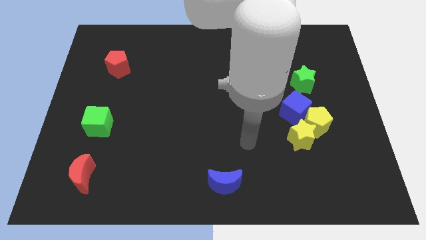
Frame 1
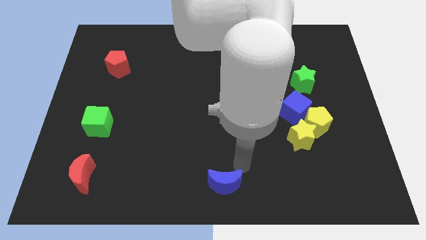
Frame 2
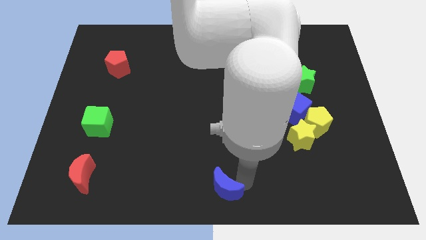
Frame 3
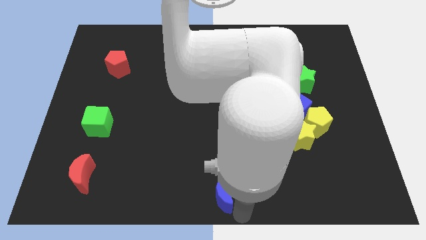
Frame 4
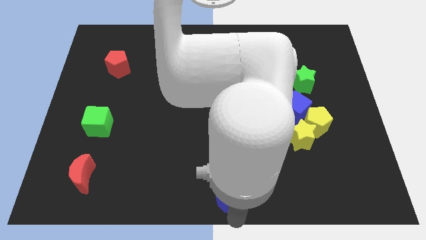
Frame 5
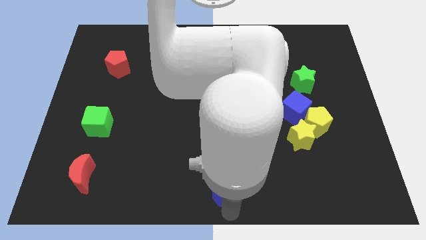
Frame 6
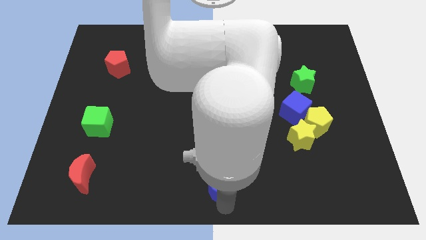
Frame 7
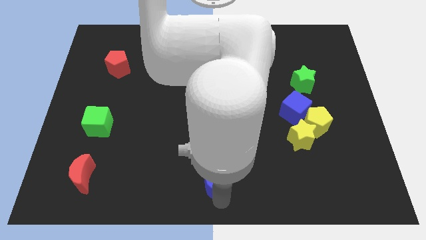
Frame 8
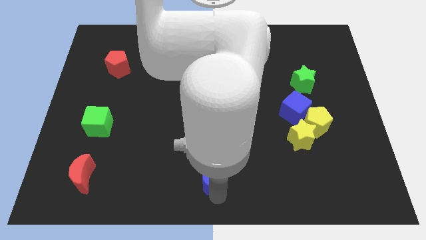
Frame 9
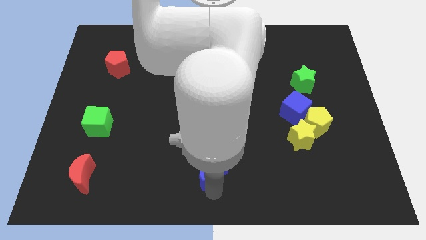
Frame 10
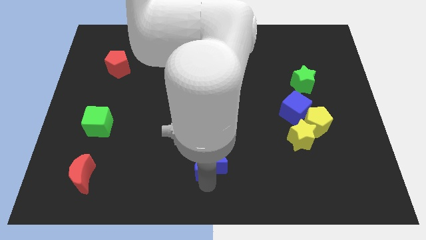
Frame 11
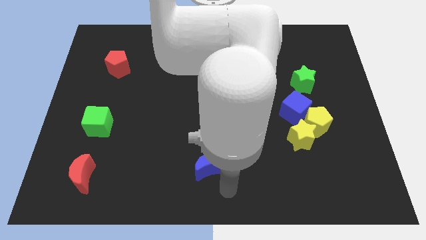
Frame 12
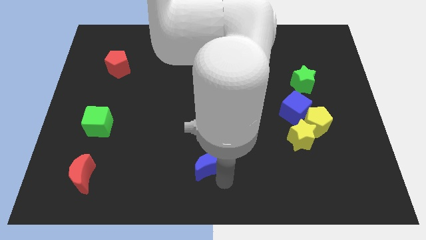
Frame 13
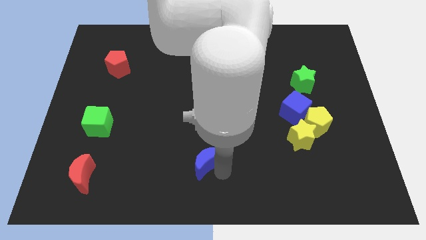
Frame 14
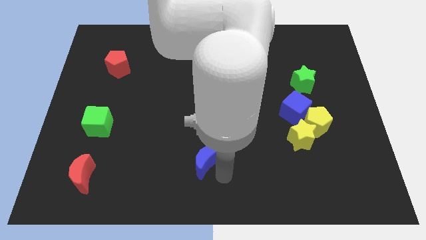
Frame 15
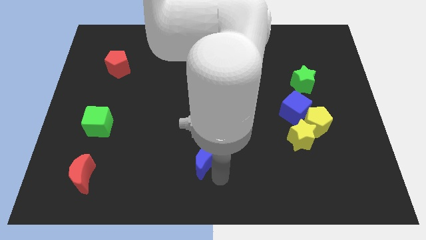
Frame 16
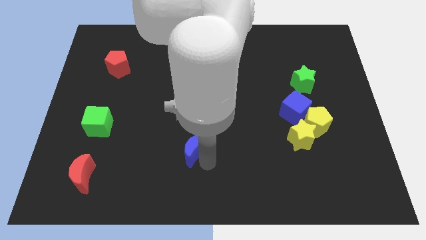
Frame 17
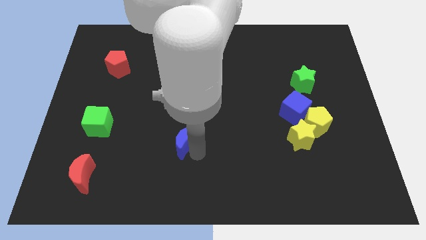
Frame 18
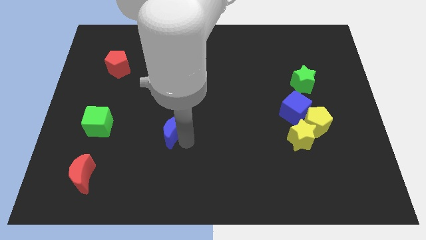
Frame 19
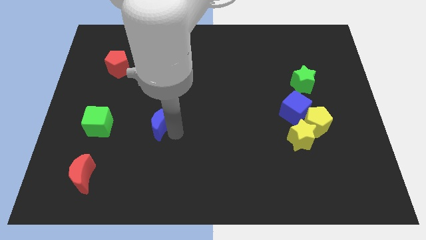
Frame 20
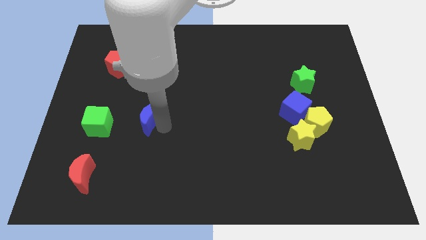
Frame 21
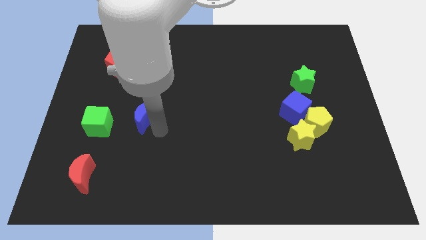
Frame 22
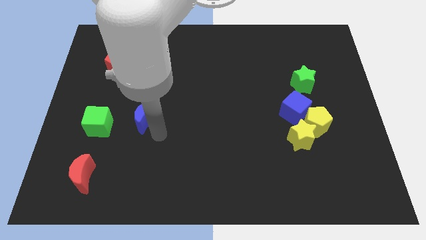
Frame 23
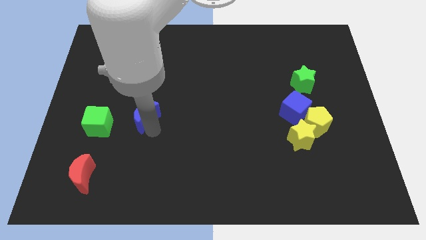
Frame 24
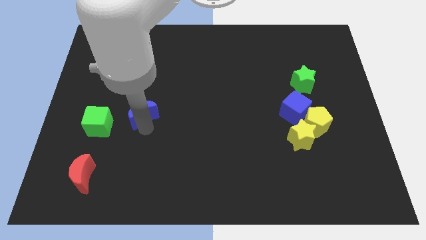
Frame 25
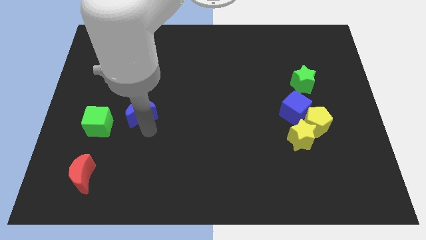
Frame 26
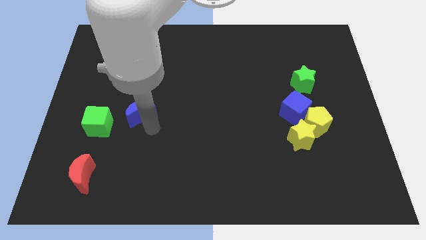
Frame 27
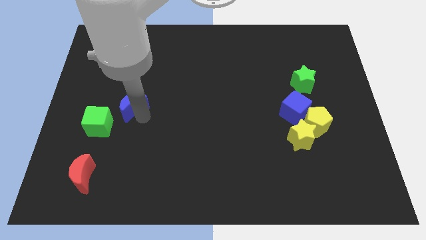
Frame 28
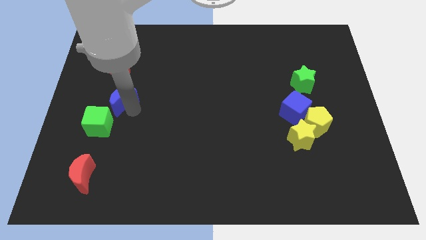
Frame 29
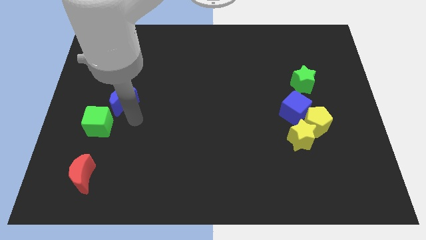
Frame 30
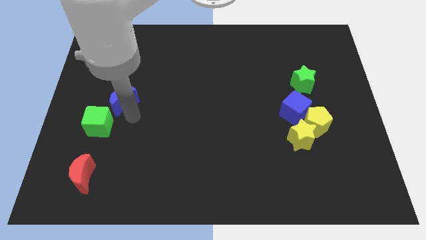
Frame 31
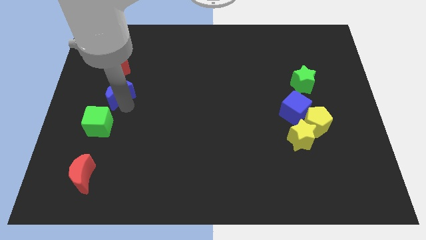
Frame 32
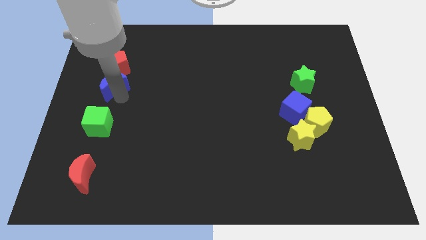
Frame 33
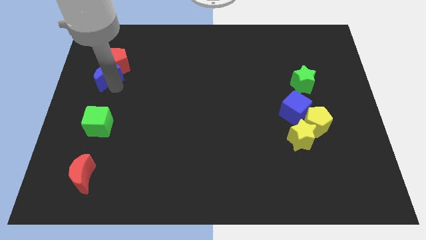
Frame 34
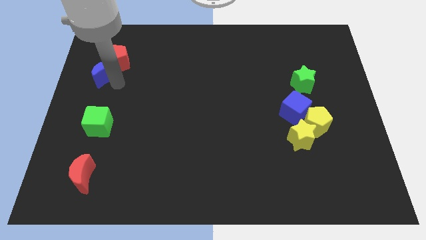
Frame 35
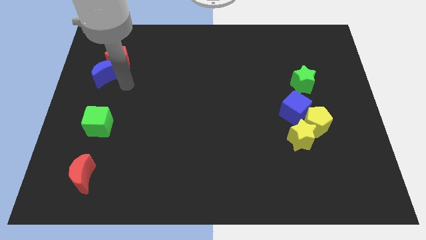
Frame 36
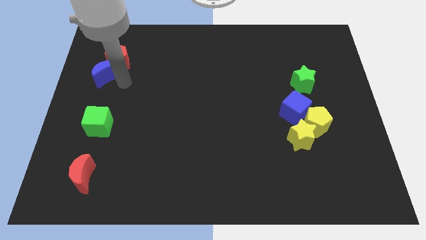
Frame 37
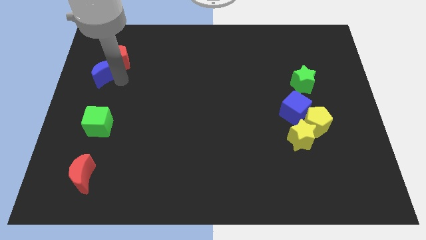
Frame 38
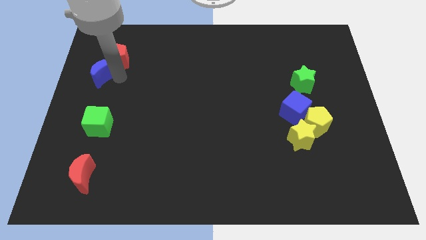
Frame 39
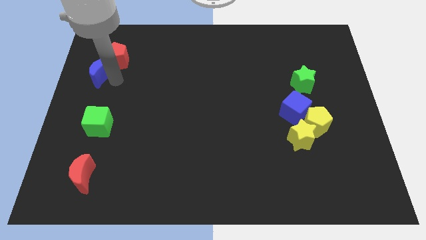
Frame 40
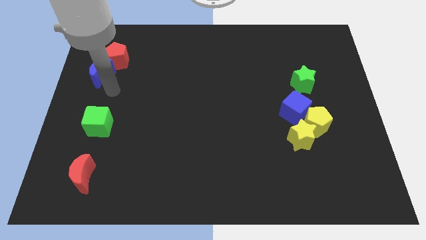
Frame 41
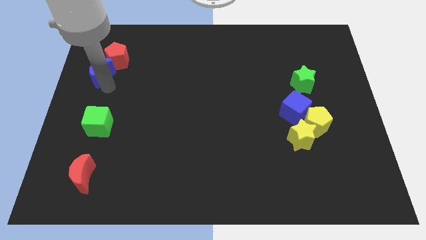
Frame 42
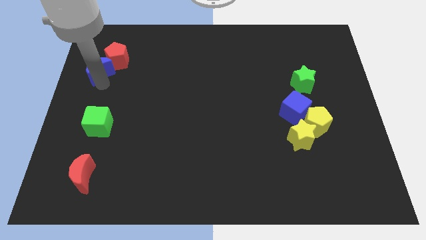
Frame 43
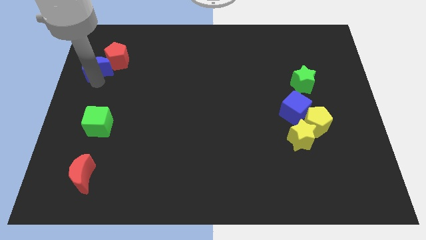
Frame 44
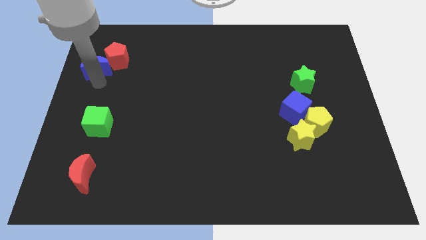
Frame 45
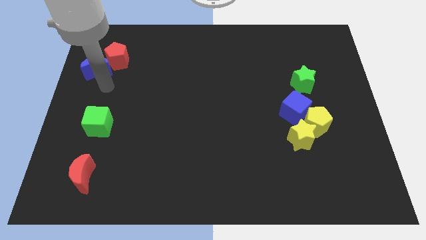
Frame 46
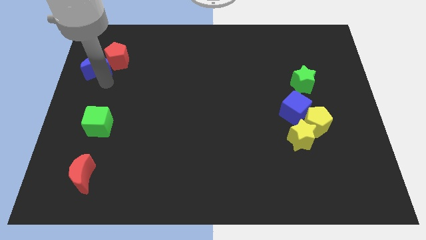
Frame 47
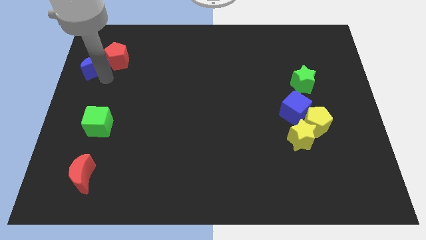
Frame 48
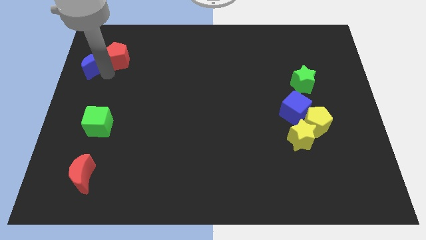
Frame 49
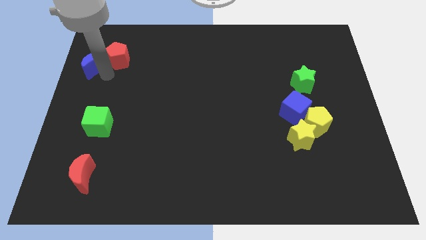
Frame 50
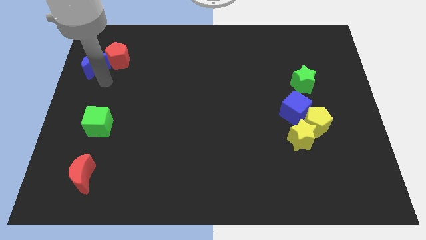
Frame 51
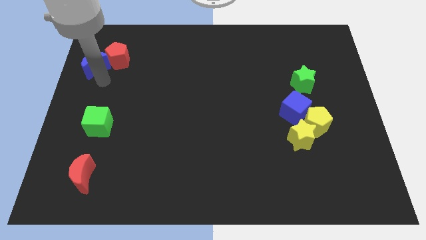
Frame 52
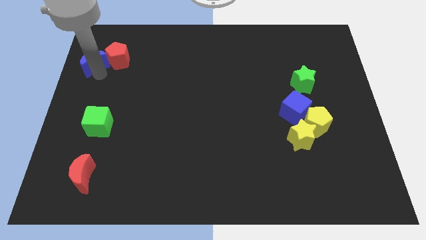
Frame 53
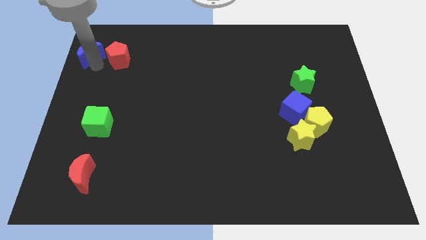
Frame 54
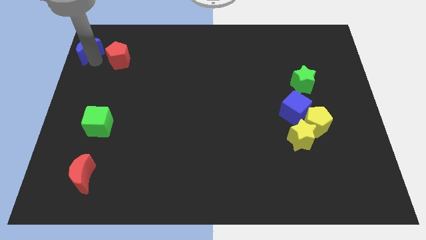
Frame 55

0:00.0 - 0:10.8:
slide the blue moon to the top left

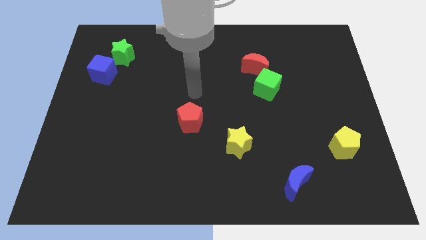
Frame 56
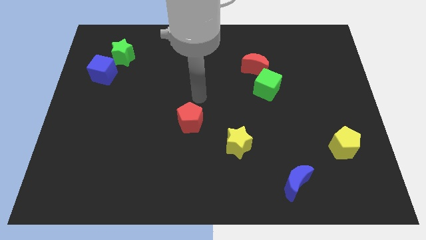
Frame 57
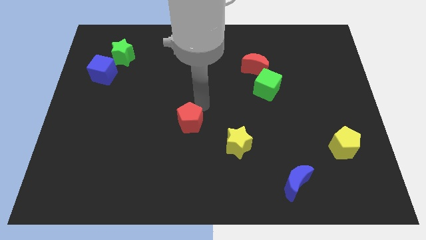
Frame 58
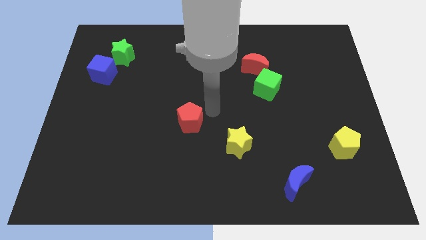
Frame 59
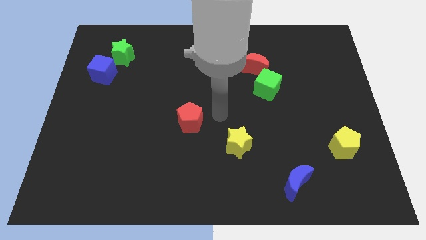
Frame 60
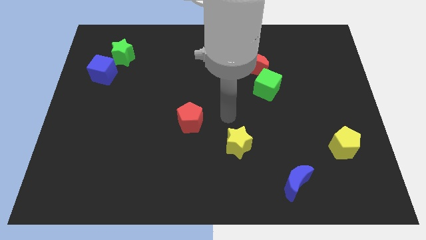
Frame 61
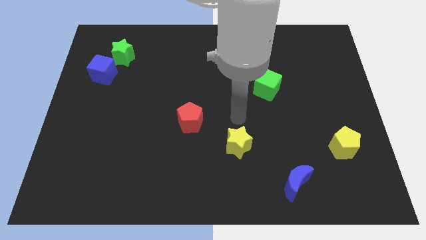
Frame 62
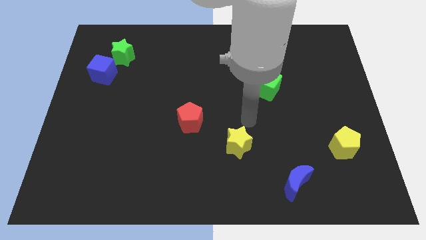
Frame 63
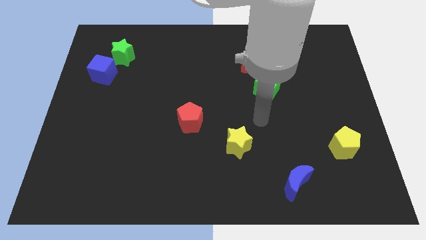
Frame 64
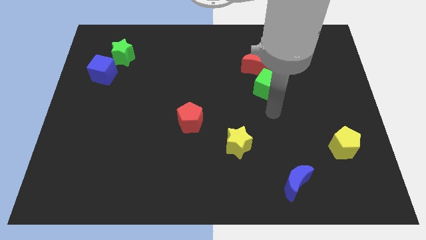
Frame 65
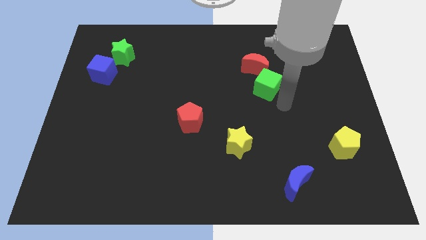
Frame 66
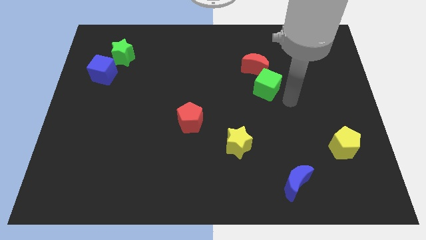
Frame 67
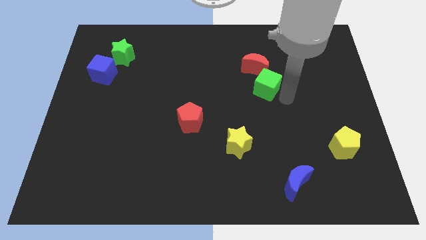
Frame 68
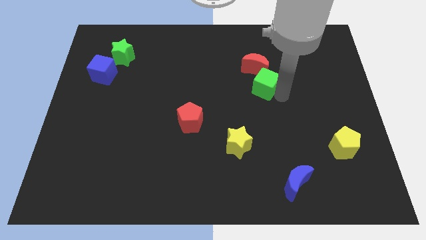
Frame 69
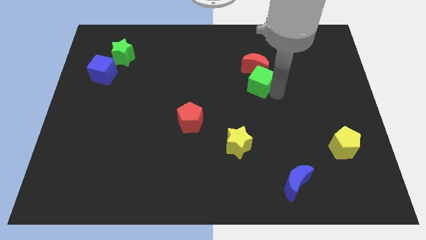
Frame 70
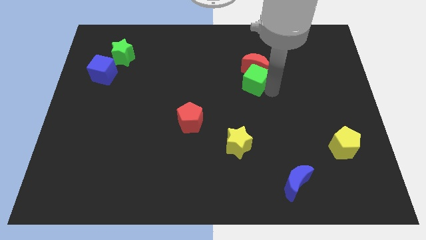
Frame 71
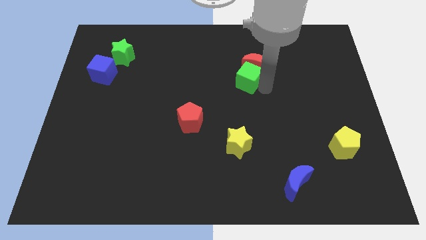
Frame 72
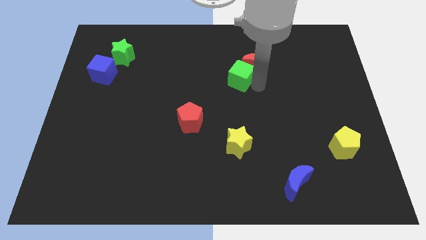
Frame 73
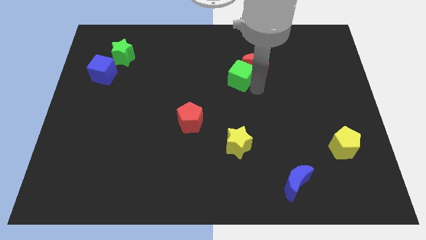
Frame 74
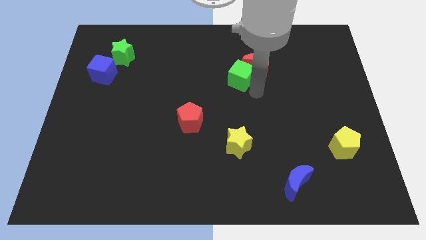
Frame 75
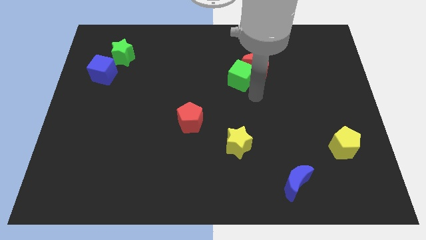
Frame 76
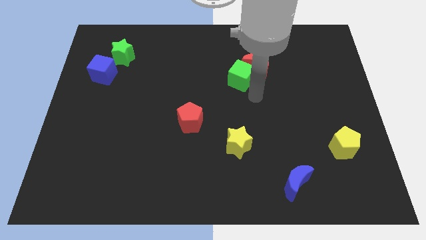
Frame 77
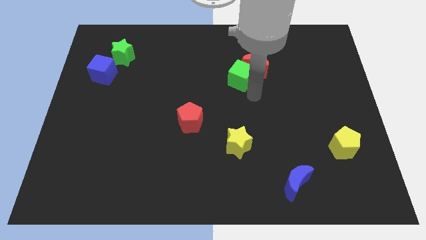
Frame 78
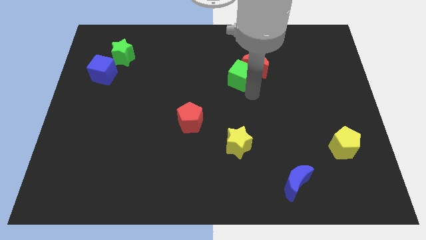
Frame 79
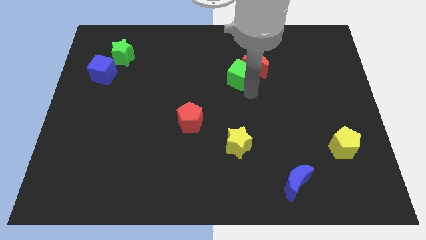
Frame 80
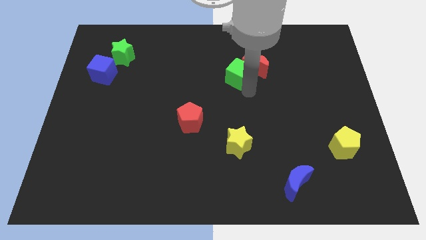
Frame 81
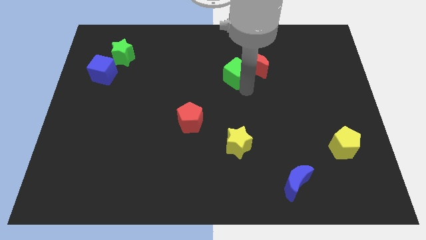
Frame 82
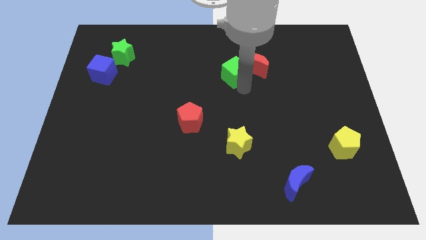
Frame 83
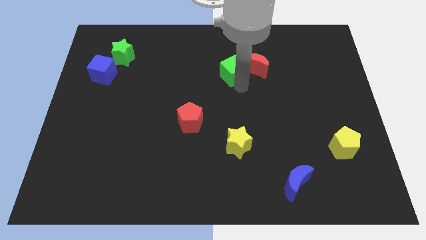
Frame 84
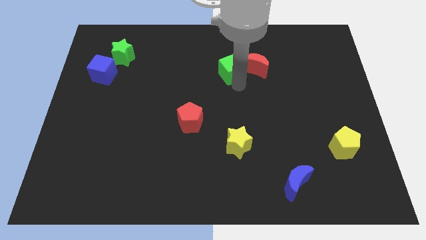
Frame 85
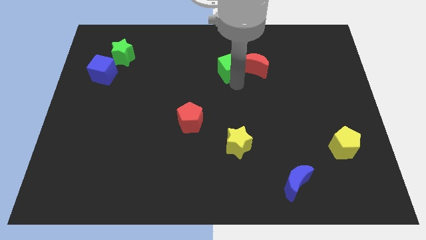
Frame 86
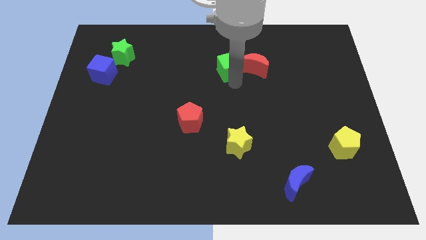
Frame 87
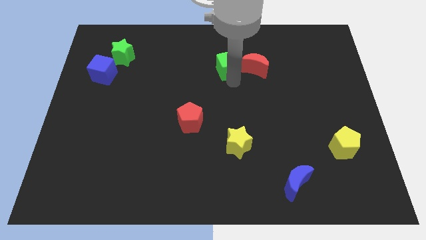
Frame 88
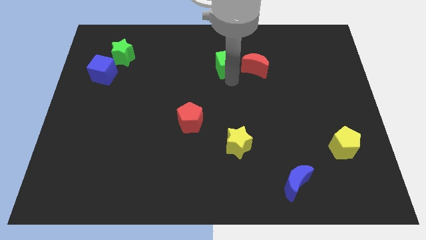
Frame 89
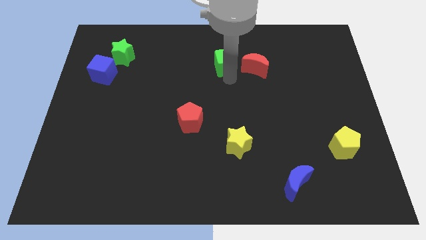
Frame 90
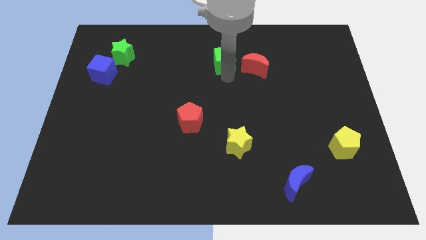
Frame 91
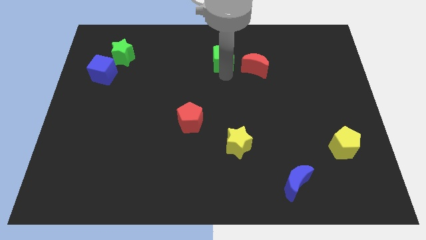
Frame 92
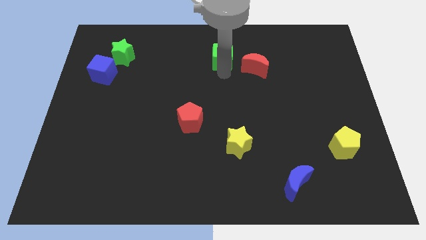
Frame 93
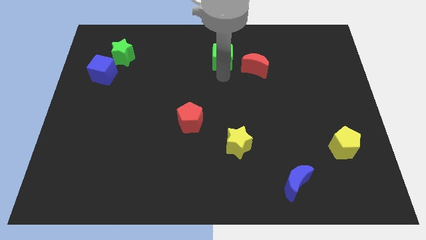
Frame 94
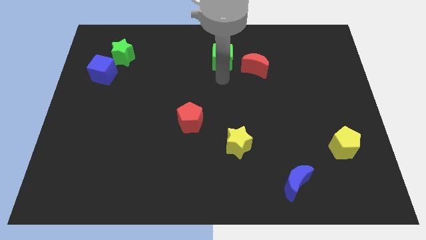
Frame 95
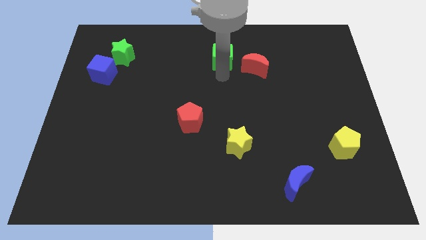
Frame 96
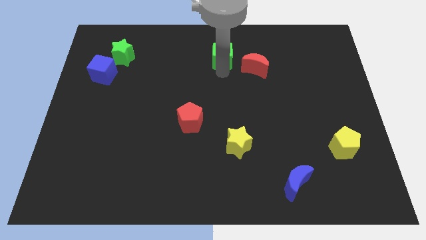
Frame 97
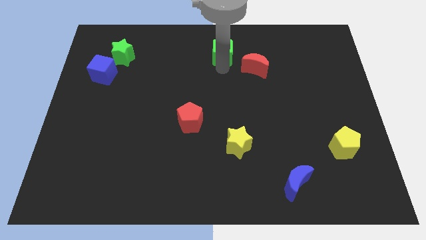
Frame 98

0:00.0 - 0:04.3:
push the green cube to the towards your base
